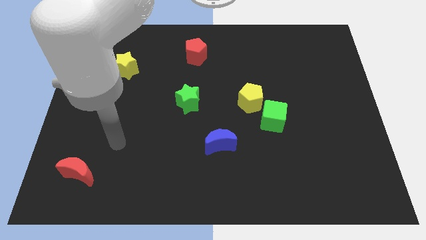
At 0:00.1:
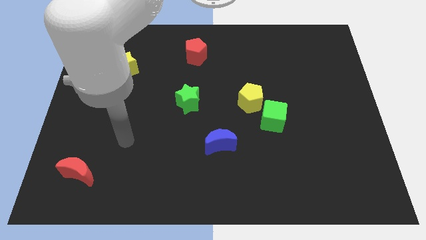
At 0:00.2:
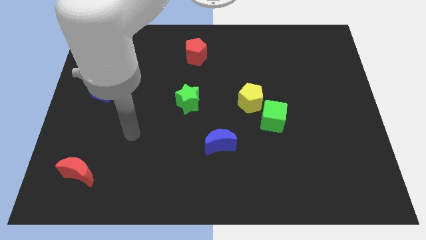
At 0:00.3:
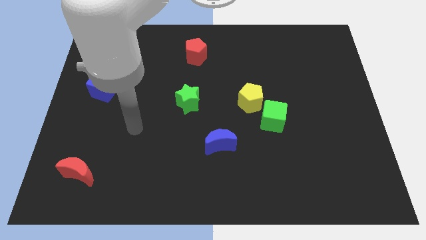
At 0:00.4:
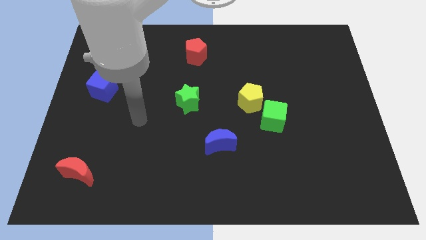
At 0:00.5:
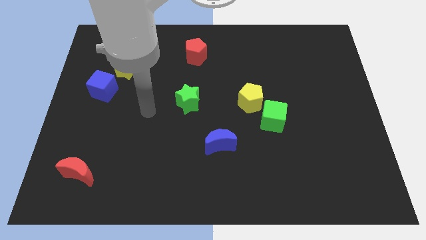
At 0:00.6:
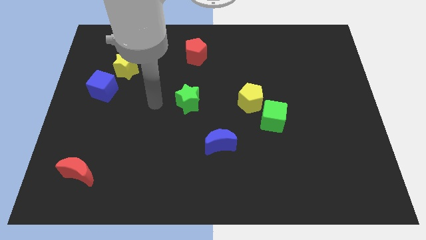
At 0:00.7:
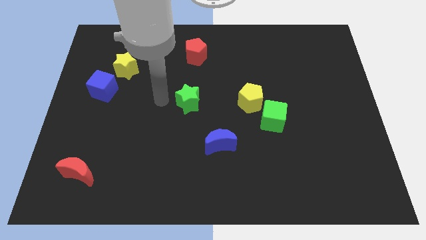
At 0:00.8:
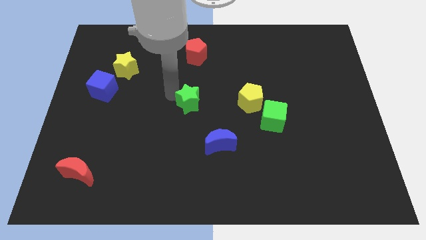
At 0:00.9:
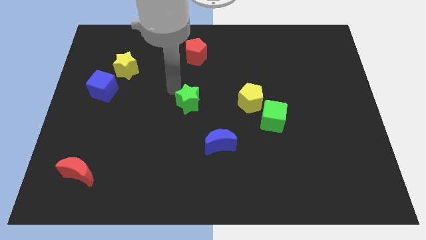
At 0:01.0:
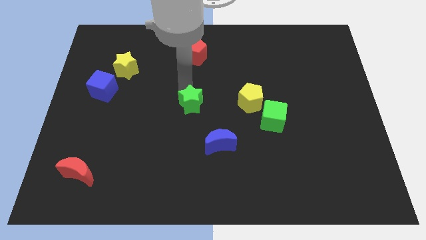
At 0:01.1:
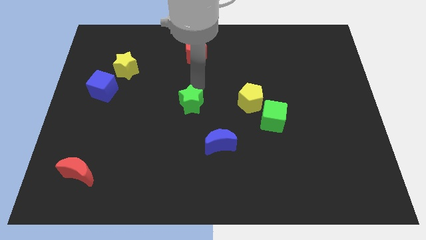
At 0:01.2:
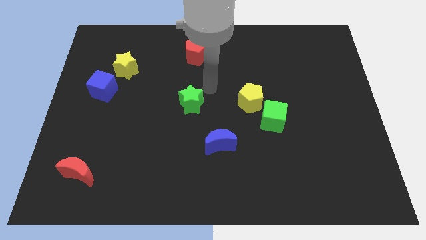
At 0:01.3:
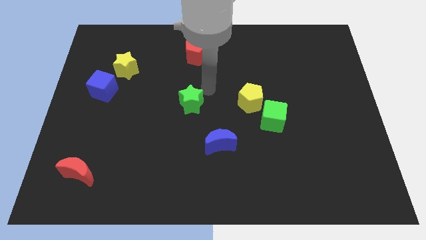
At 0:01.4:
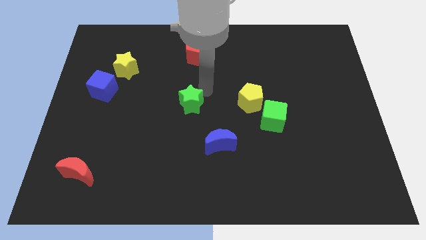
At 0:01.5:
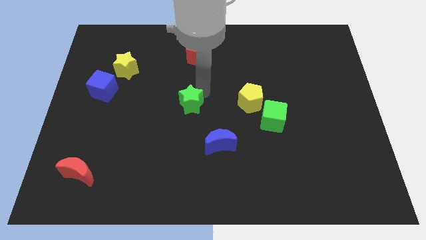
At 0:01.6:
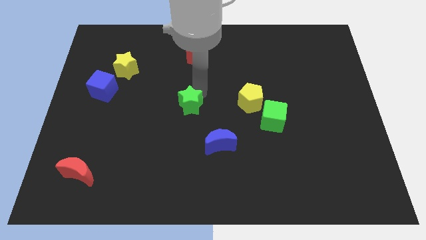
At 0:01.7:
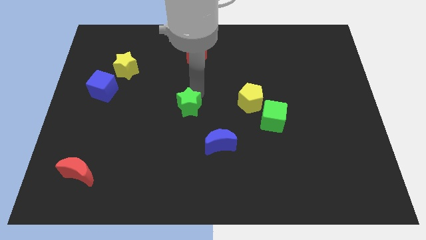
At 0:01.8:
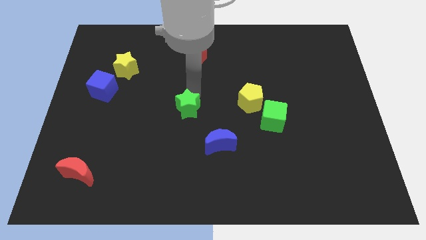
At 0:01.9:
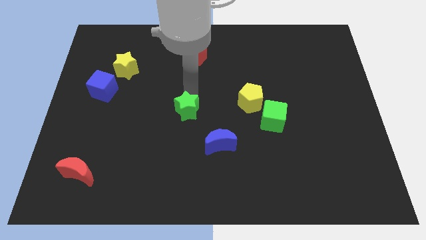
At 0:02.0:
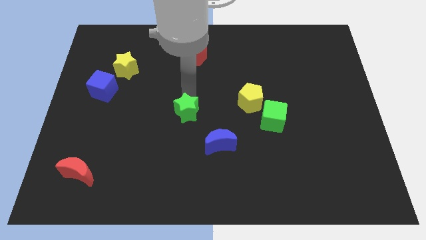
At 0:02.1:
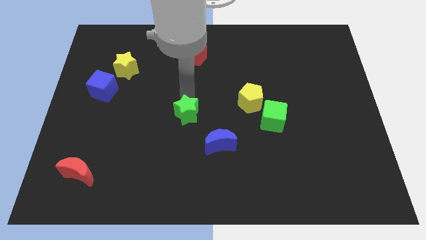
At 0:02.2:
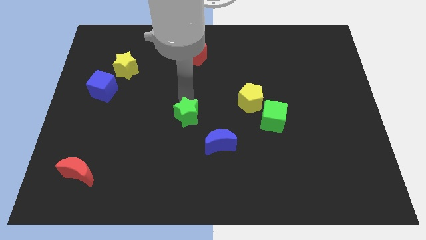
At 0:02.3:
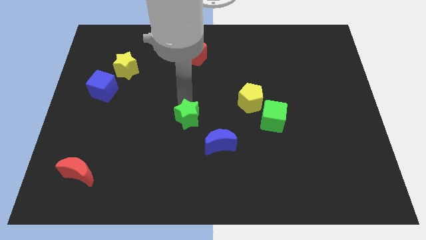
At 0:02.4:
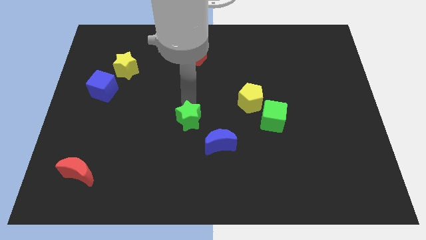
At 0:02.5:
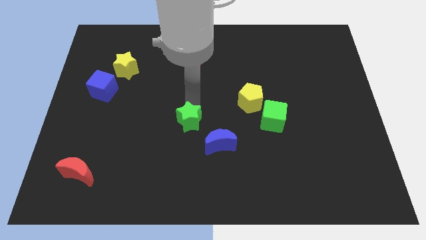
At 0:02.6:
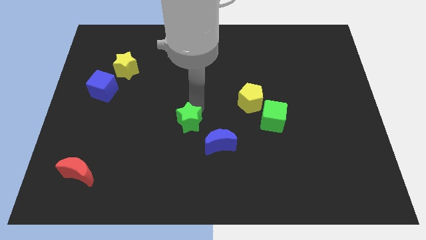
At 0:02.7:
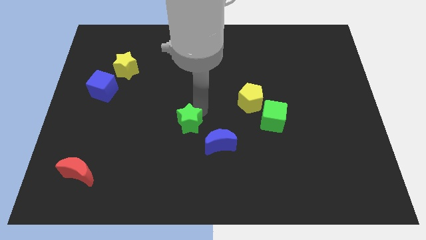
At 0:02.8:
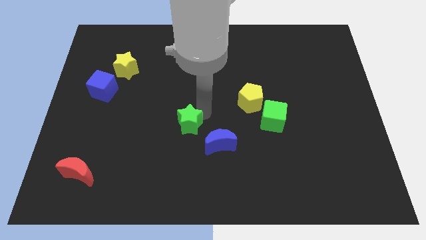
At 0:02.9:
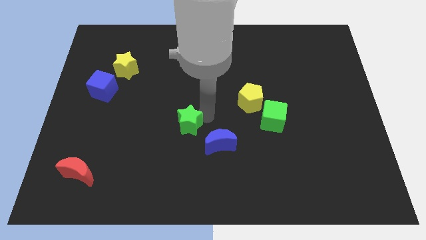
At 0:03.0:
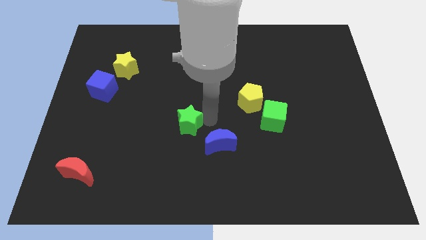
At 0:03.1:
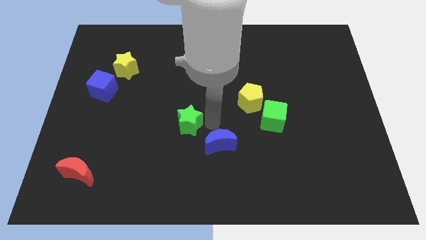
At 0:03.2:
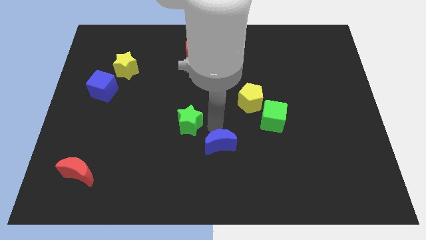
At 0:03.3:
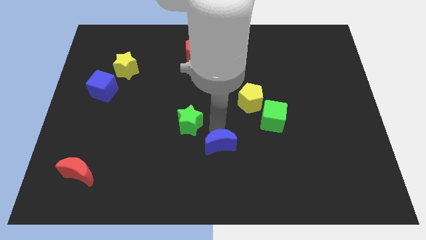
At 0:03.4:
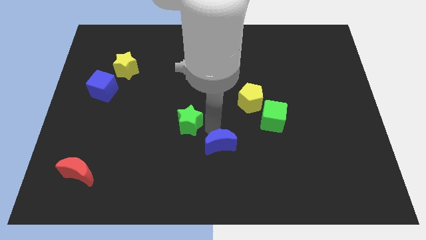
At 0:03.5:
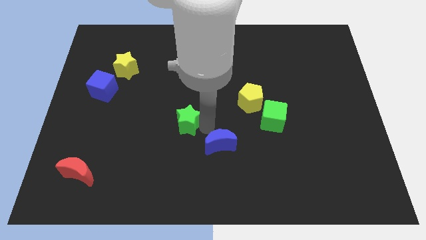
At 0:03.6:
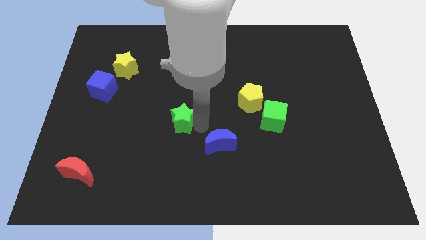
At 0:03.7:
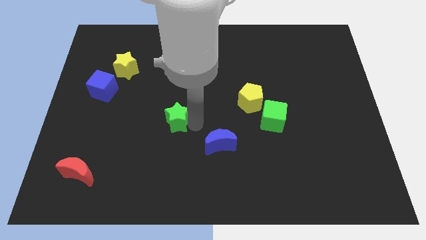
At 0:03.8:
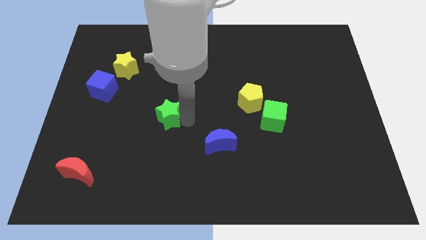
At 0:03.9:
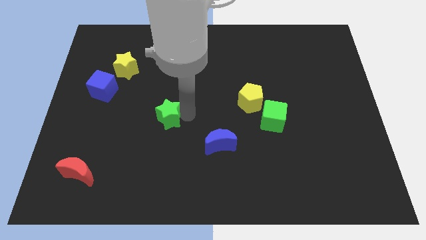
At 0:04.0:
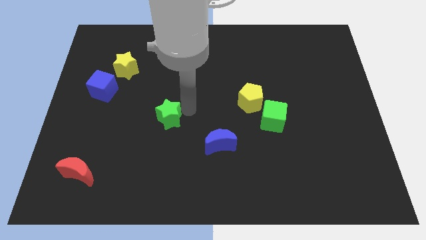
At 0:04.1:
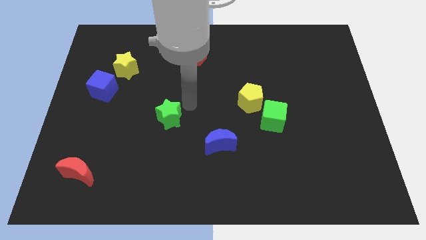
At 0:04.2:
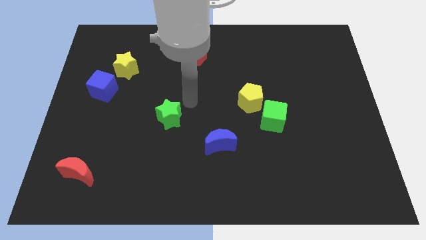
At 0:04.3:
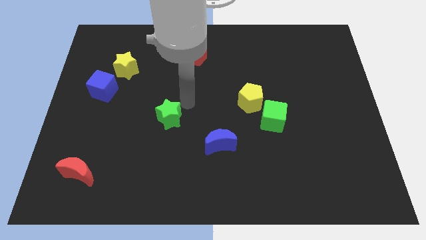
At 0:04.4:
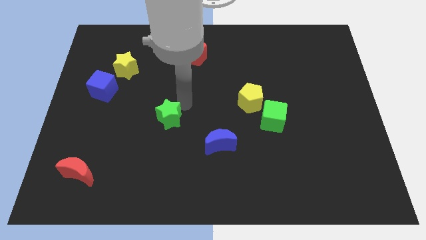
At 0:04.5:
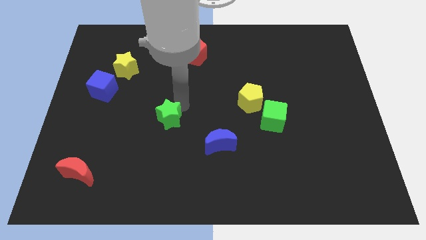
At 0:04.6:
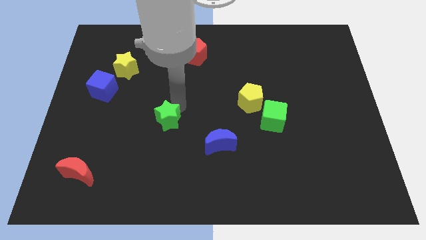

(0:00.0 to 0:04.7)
slightly move the green star diagonally downwards and left

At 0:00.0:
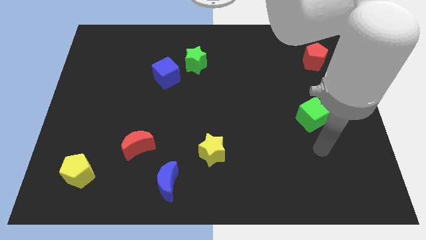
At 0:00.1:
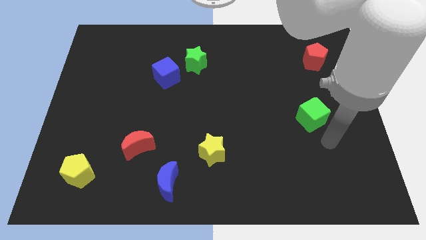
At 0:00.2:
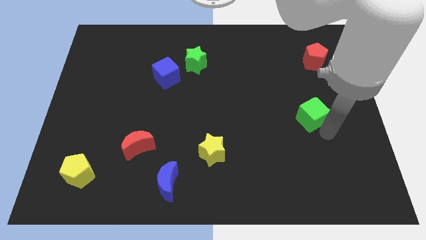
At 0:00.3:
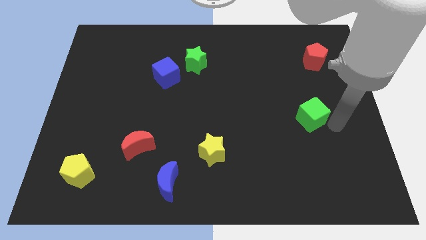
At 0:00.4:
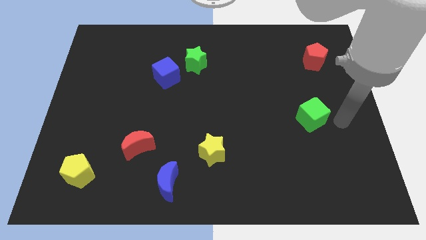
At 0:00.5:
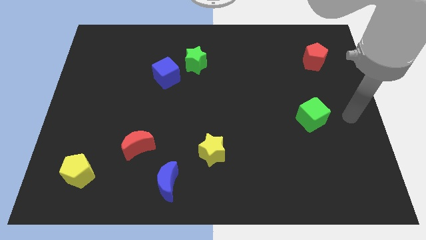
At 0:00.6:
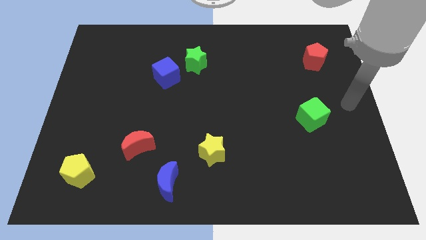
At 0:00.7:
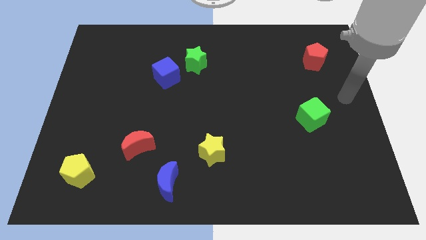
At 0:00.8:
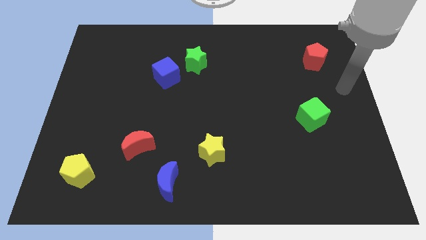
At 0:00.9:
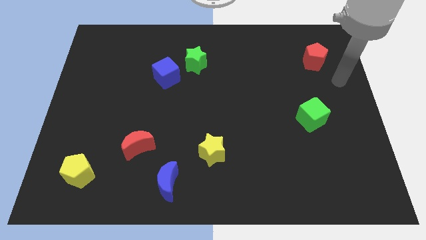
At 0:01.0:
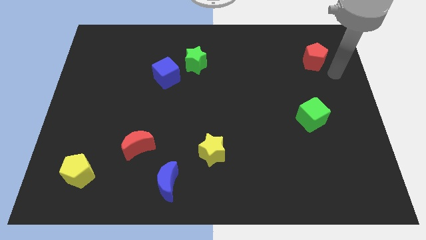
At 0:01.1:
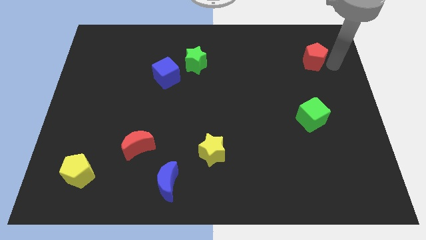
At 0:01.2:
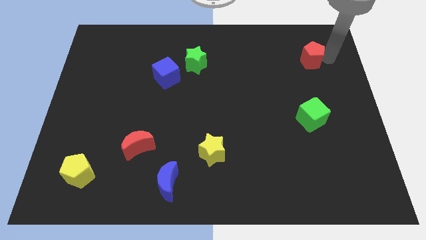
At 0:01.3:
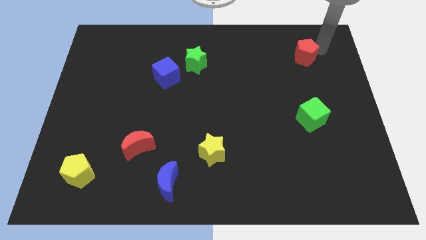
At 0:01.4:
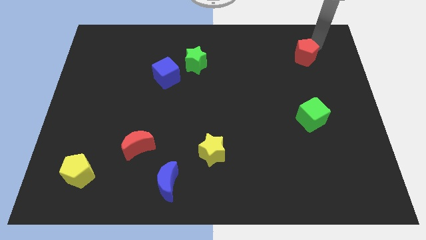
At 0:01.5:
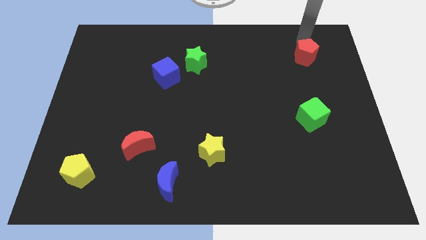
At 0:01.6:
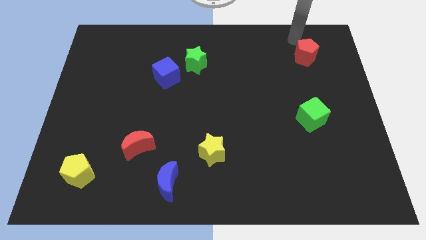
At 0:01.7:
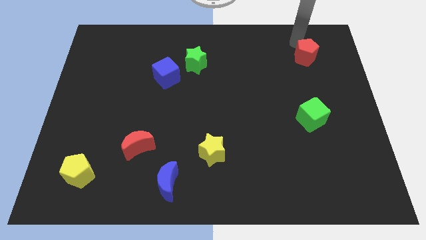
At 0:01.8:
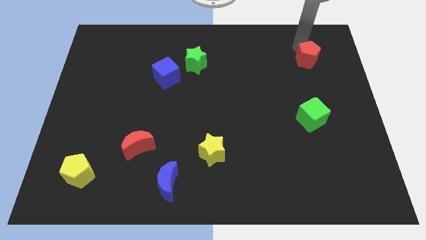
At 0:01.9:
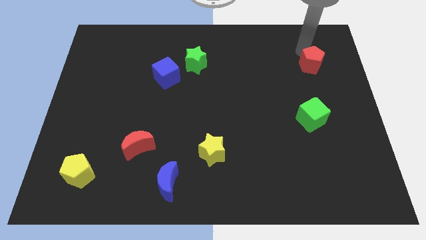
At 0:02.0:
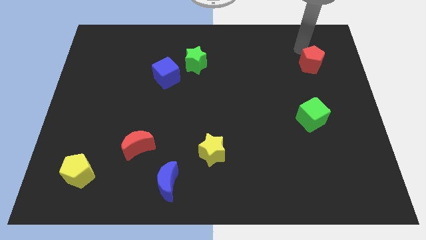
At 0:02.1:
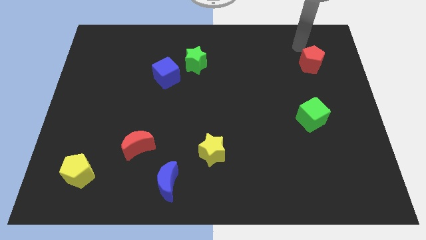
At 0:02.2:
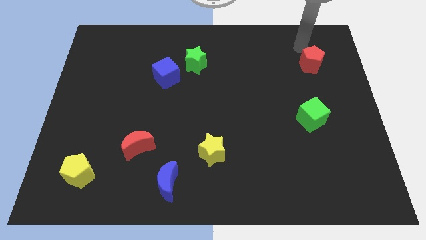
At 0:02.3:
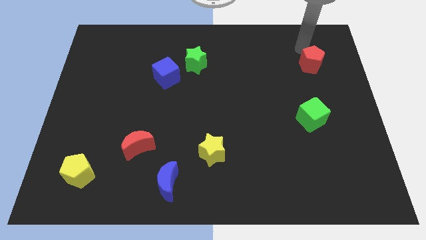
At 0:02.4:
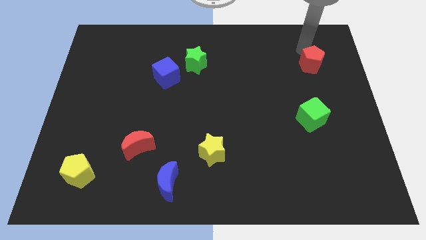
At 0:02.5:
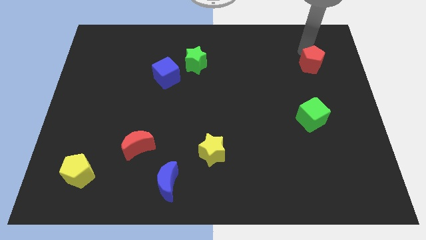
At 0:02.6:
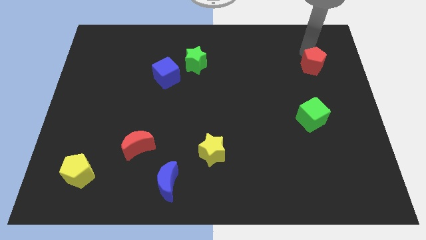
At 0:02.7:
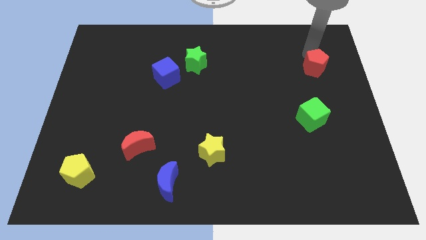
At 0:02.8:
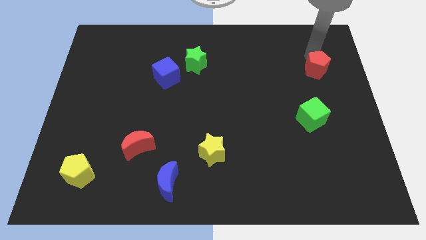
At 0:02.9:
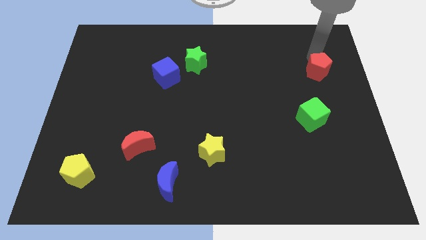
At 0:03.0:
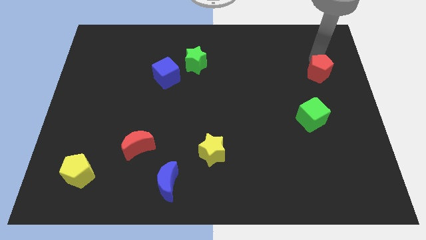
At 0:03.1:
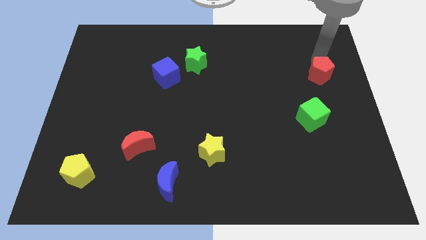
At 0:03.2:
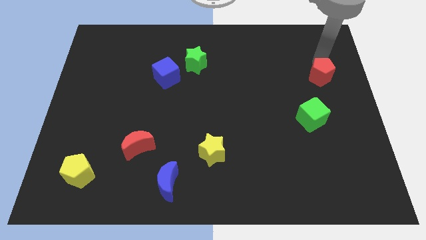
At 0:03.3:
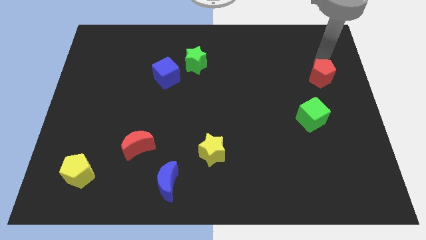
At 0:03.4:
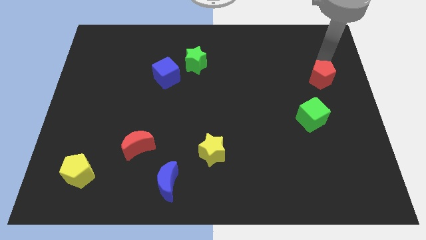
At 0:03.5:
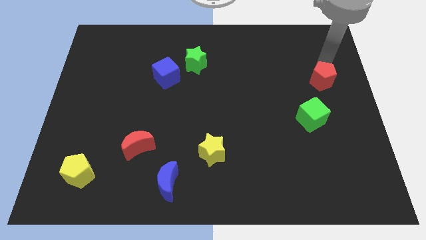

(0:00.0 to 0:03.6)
slide the red pentagon down a little
